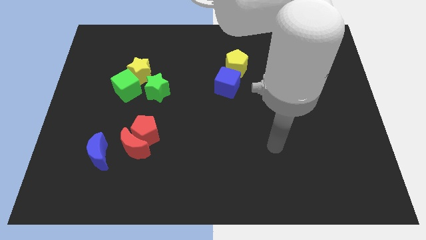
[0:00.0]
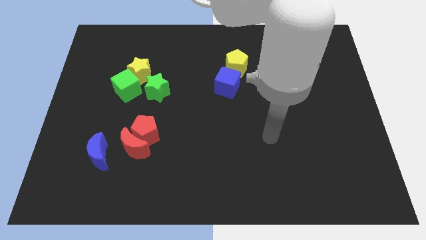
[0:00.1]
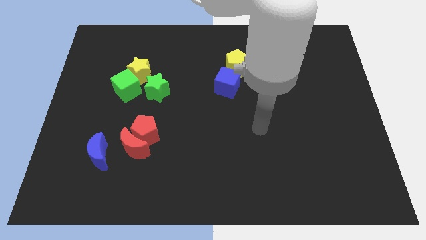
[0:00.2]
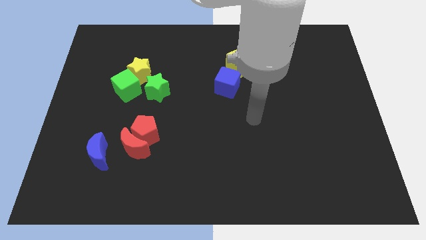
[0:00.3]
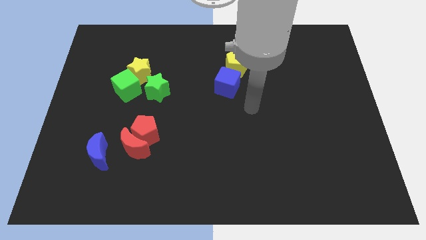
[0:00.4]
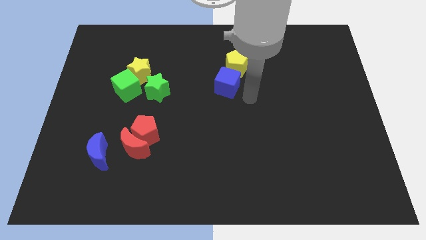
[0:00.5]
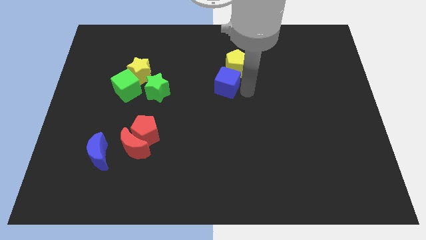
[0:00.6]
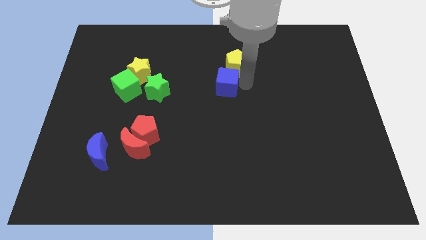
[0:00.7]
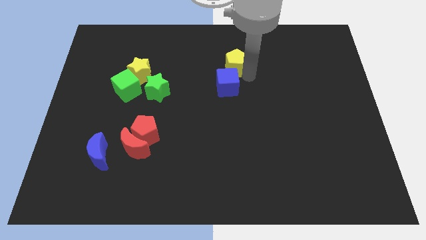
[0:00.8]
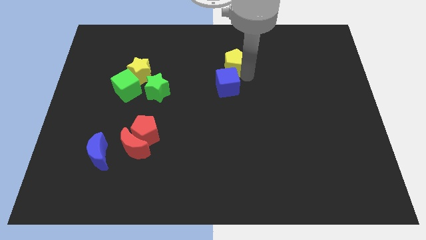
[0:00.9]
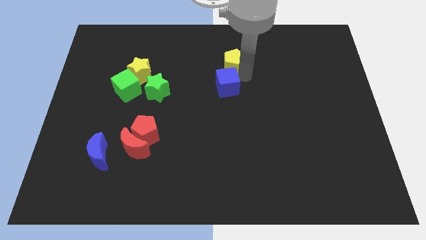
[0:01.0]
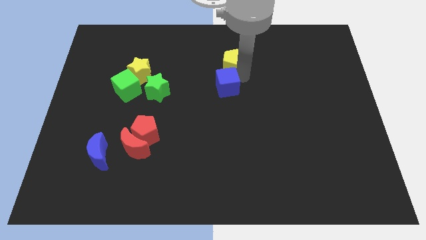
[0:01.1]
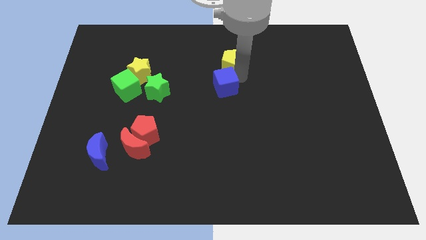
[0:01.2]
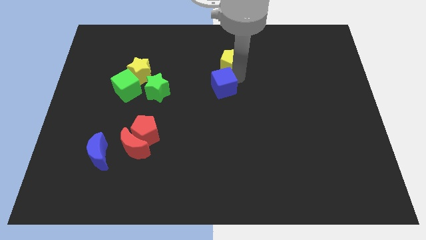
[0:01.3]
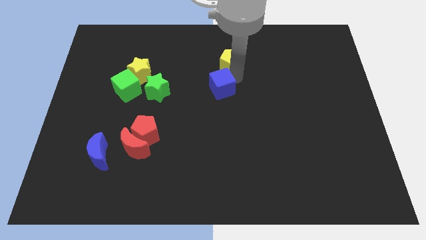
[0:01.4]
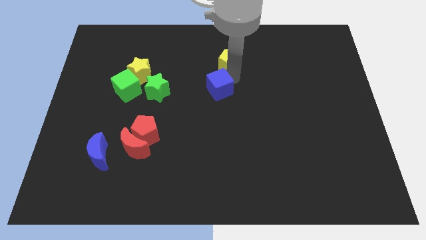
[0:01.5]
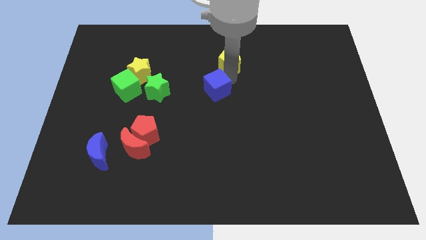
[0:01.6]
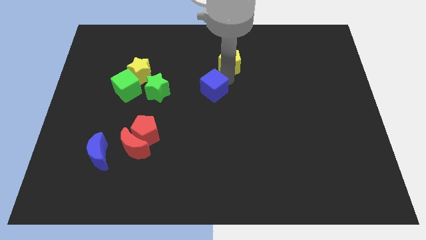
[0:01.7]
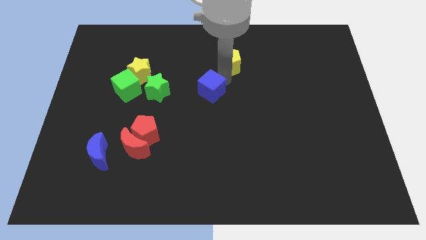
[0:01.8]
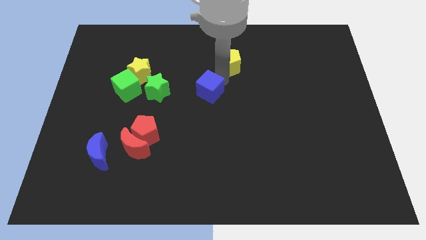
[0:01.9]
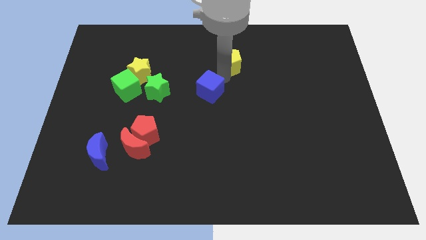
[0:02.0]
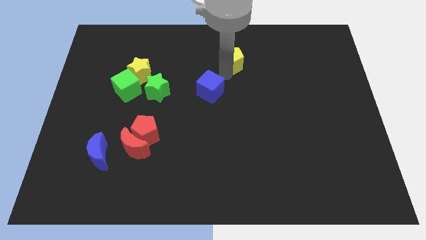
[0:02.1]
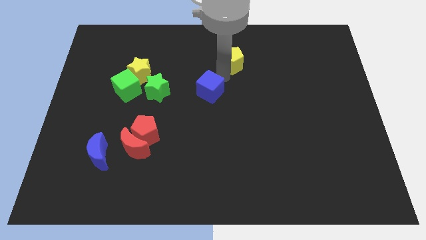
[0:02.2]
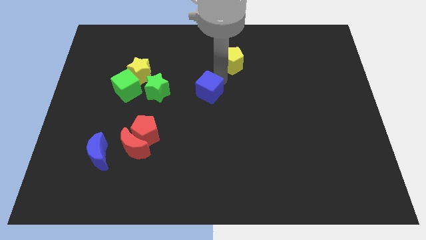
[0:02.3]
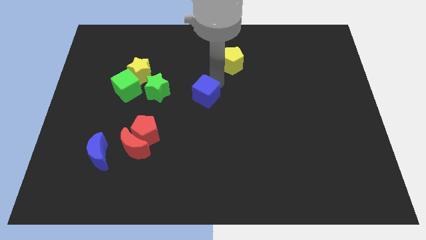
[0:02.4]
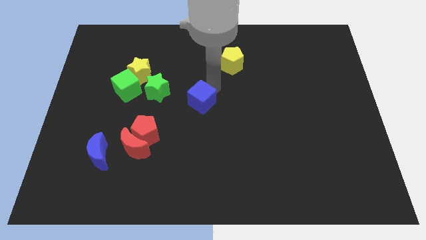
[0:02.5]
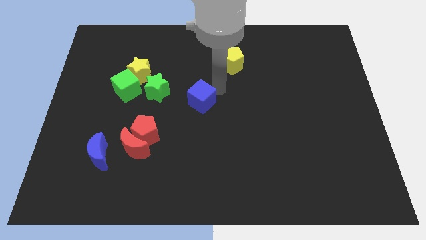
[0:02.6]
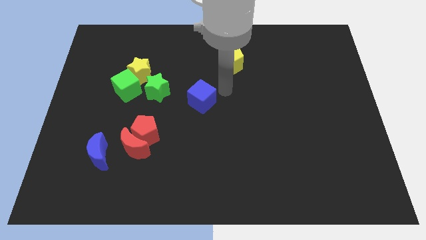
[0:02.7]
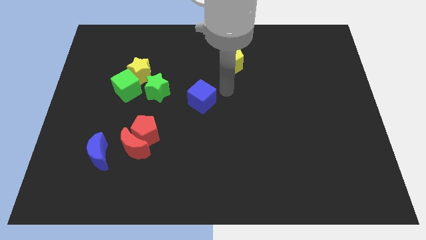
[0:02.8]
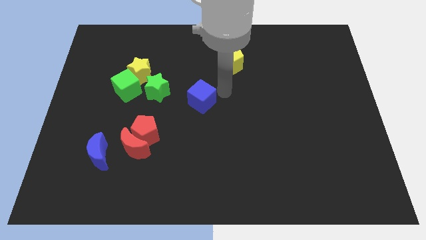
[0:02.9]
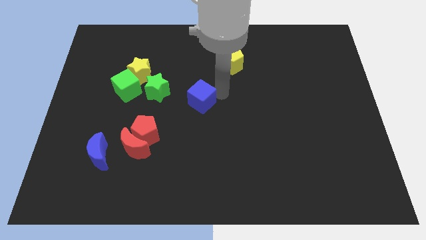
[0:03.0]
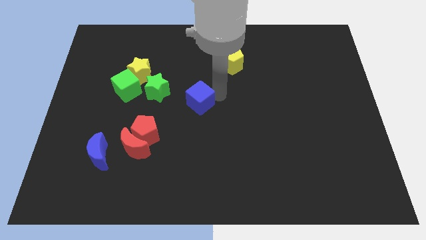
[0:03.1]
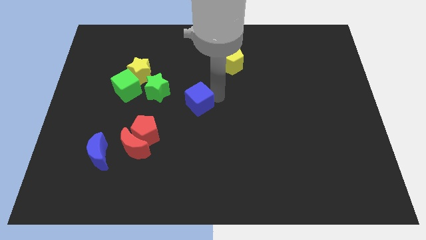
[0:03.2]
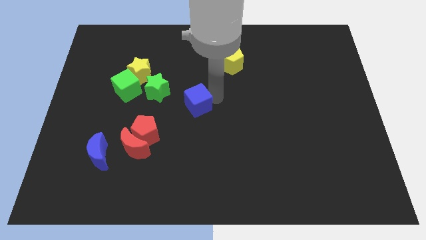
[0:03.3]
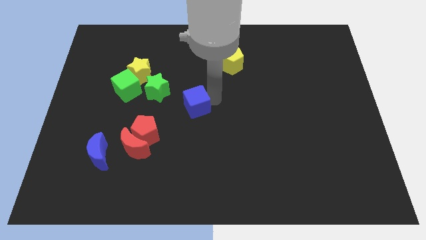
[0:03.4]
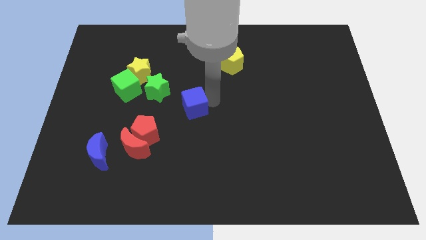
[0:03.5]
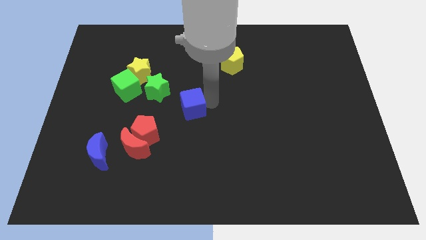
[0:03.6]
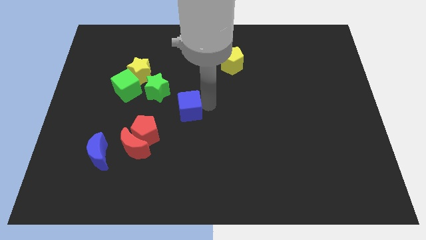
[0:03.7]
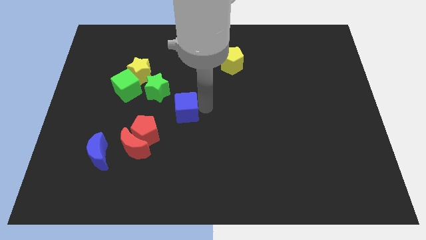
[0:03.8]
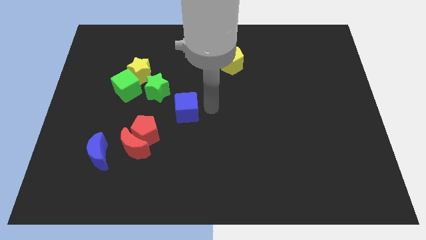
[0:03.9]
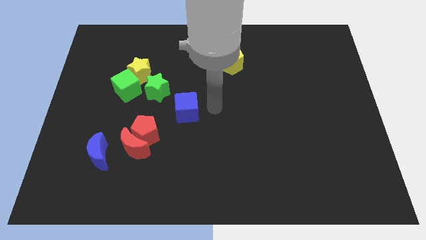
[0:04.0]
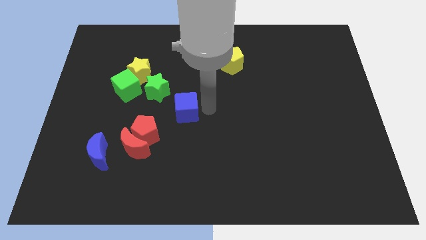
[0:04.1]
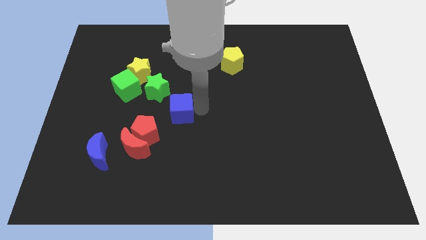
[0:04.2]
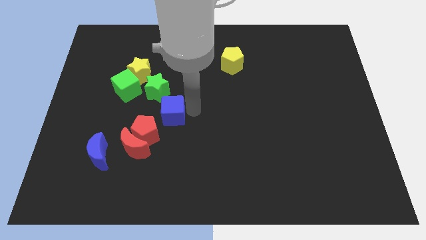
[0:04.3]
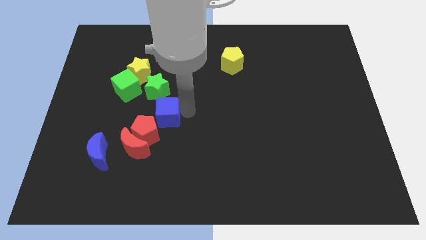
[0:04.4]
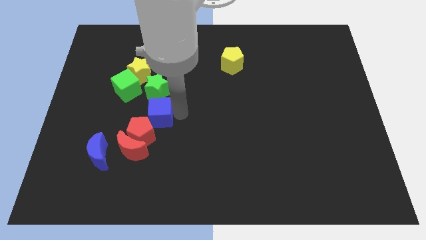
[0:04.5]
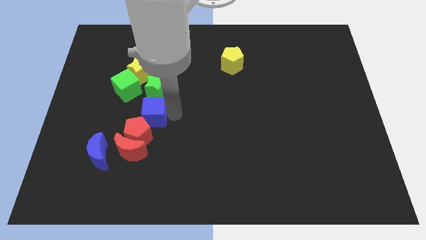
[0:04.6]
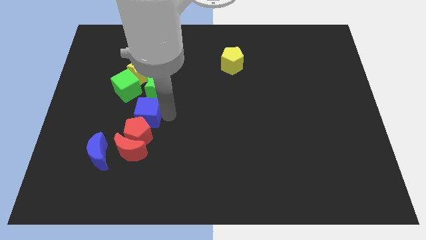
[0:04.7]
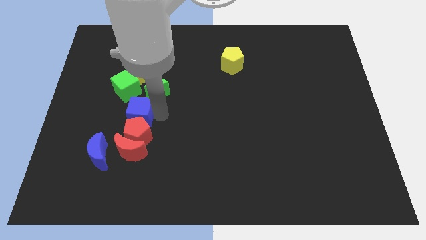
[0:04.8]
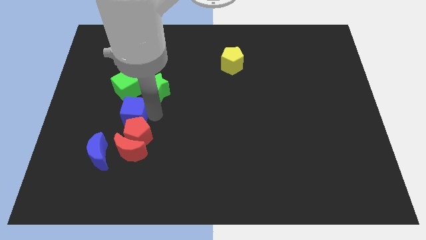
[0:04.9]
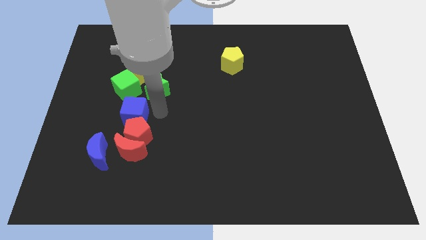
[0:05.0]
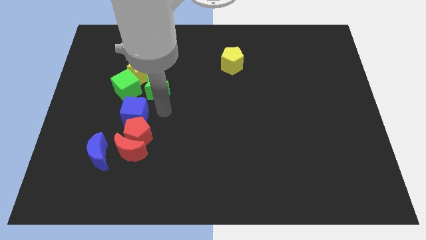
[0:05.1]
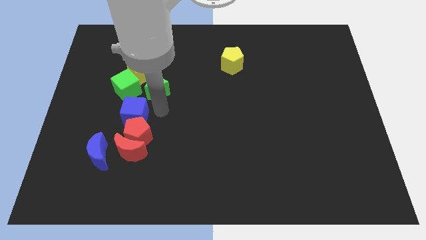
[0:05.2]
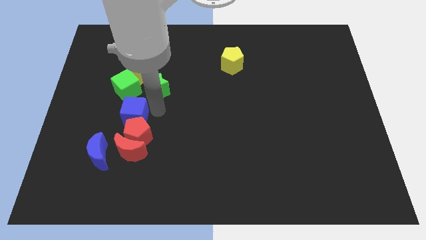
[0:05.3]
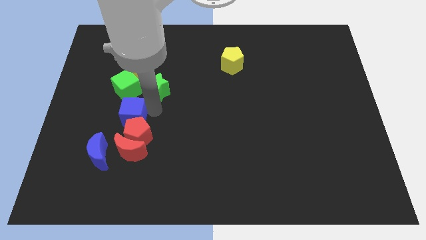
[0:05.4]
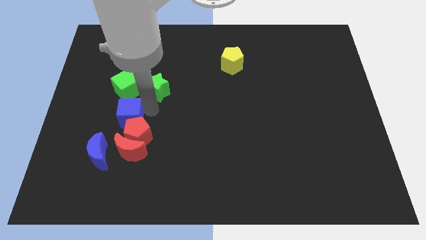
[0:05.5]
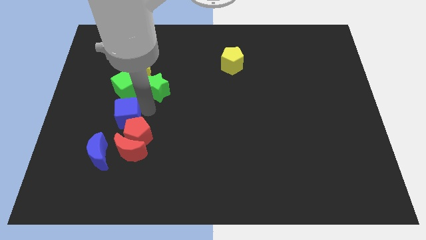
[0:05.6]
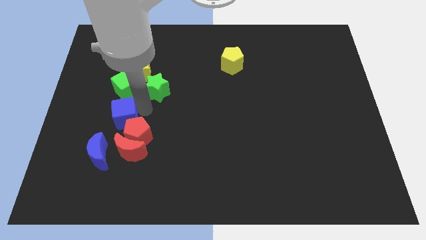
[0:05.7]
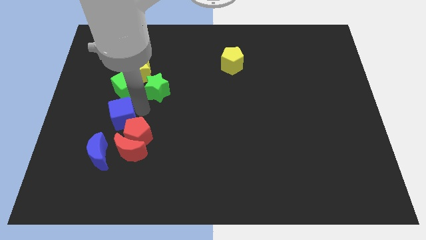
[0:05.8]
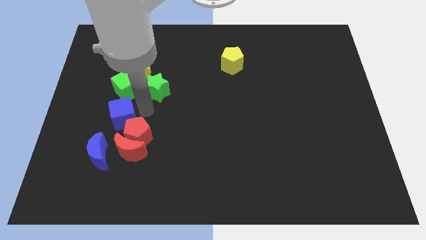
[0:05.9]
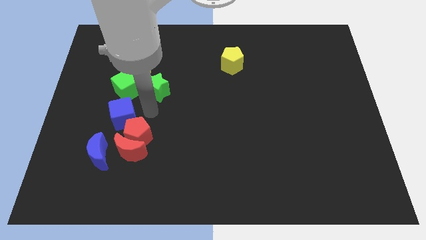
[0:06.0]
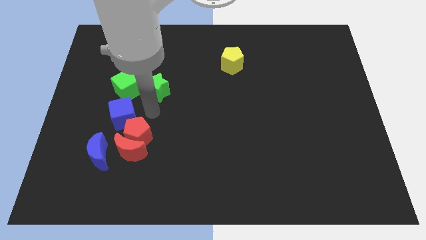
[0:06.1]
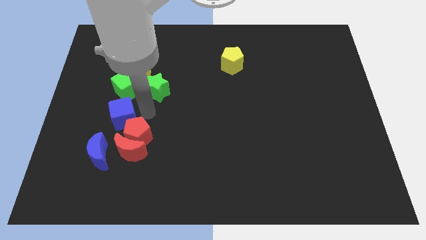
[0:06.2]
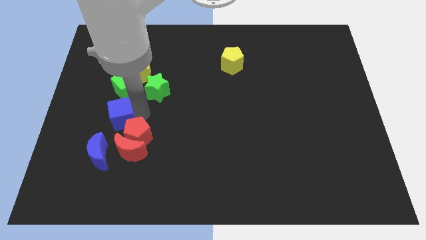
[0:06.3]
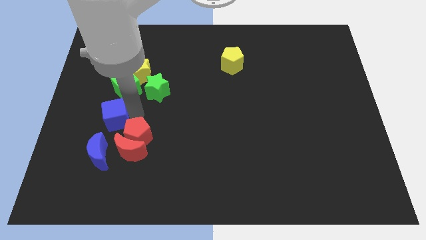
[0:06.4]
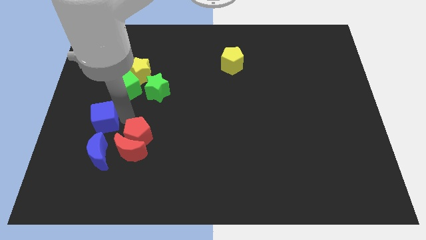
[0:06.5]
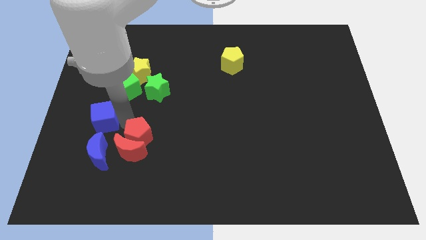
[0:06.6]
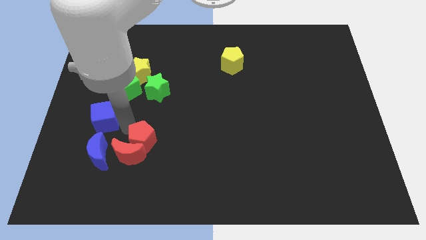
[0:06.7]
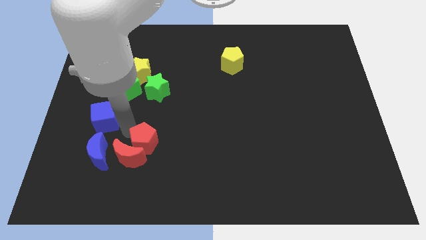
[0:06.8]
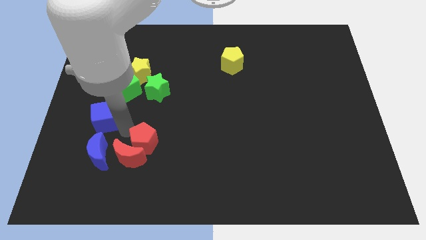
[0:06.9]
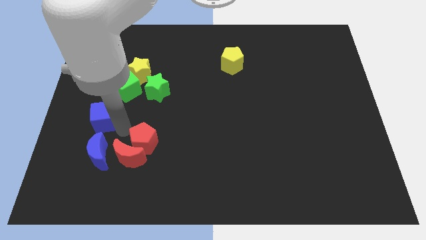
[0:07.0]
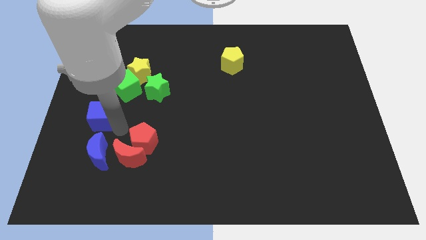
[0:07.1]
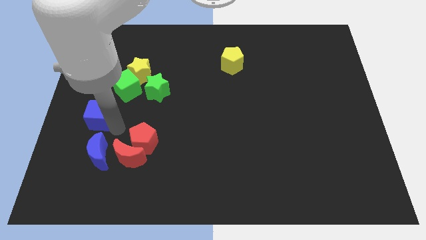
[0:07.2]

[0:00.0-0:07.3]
push the blue cube to the left side of the board
